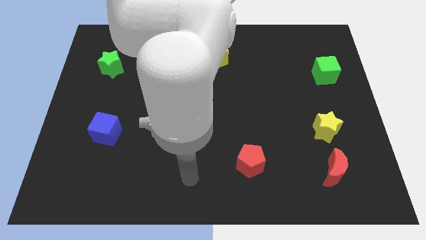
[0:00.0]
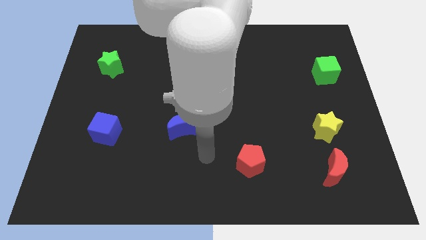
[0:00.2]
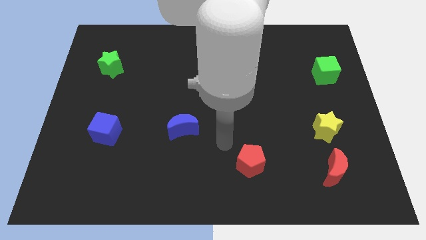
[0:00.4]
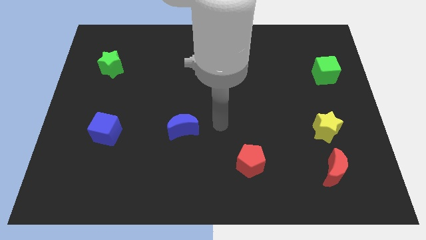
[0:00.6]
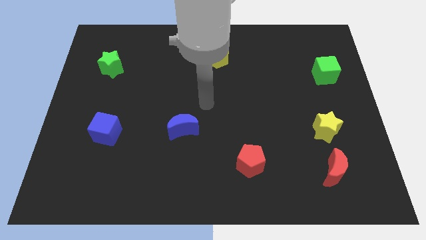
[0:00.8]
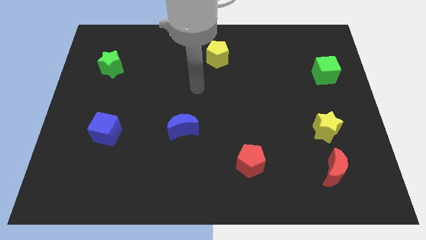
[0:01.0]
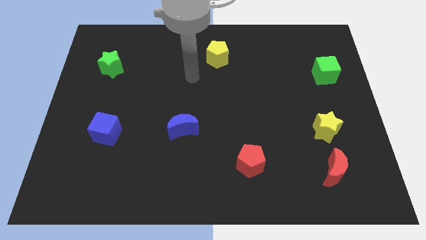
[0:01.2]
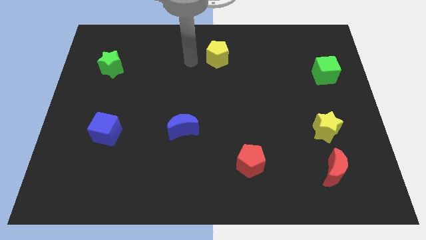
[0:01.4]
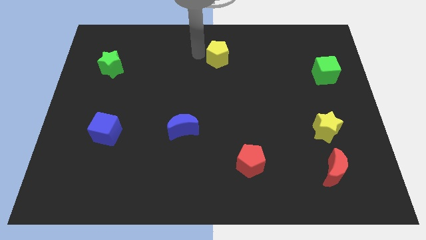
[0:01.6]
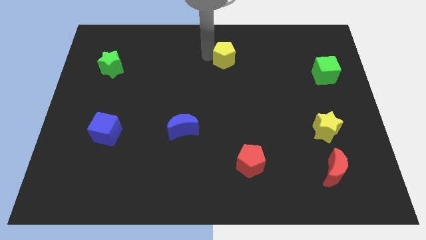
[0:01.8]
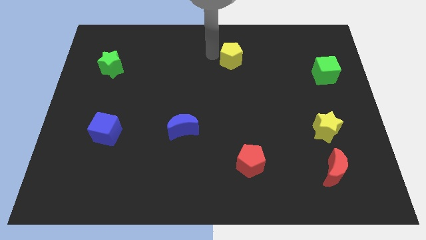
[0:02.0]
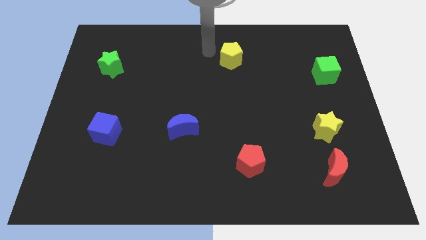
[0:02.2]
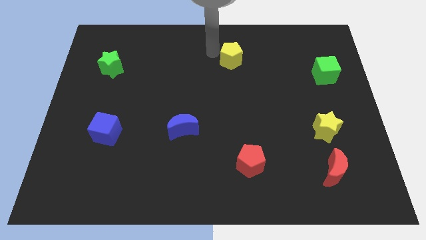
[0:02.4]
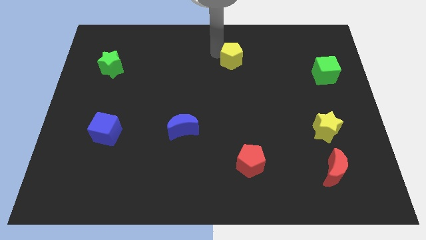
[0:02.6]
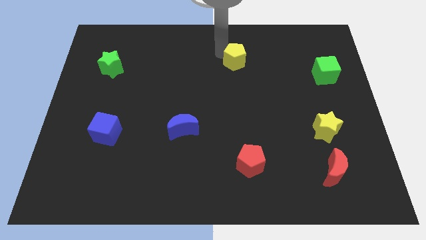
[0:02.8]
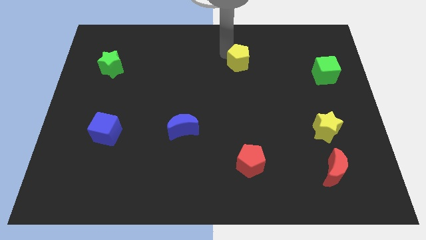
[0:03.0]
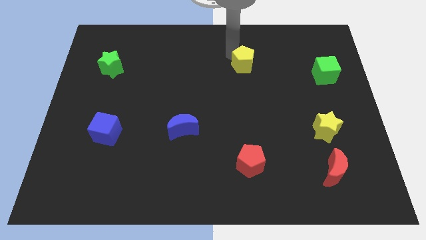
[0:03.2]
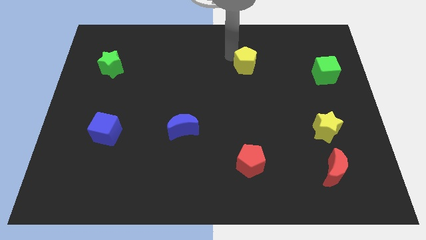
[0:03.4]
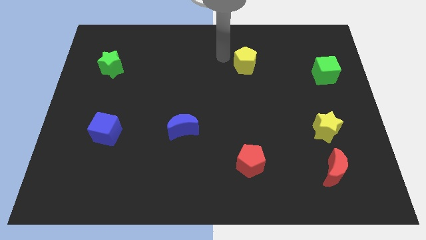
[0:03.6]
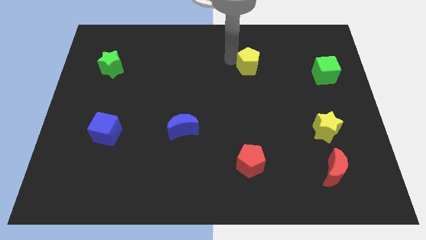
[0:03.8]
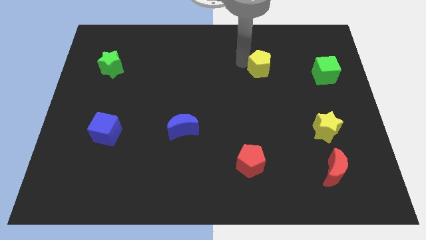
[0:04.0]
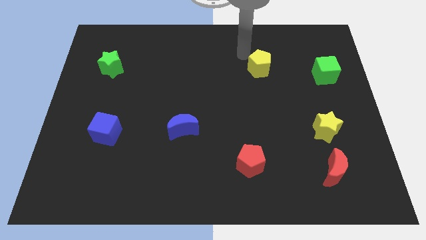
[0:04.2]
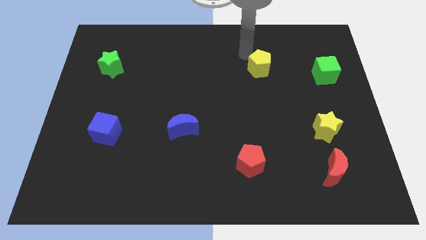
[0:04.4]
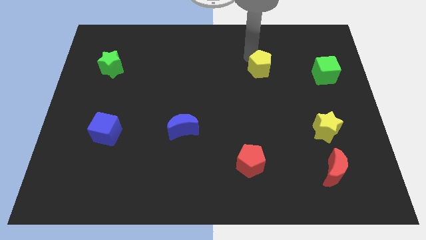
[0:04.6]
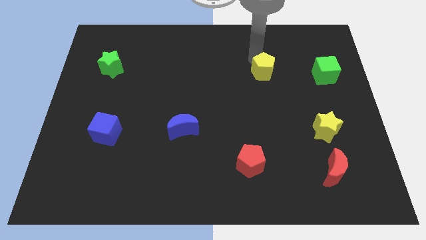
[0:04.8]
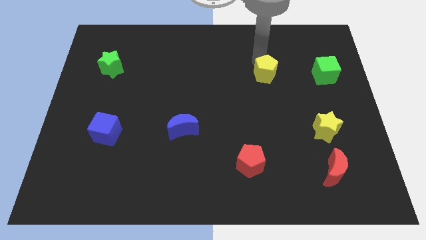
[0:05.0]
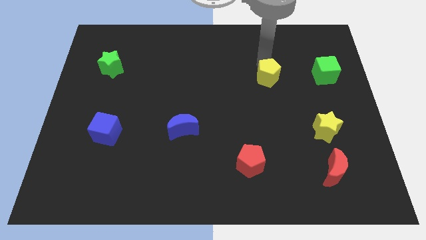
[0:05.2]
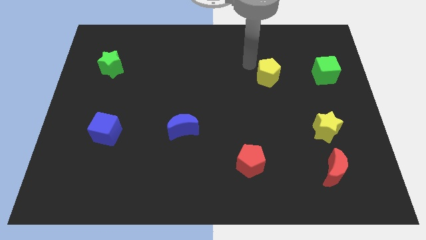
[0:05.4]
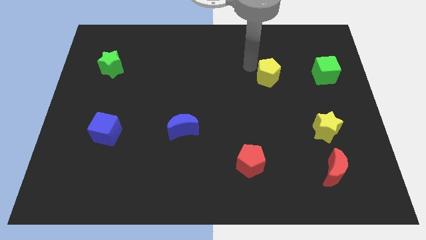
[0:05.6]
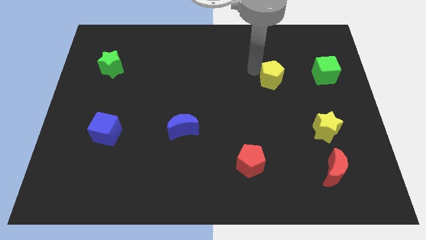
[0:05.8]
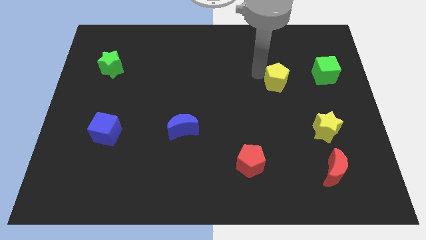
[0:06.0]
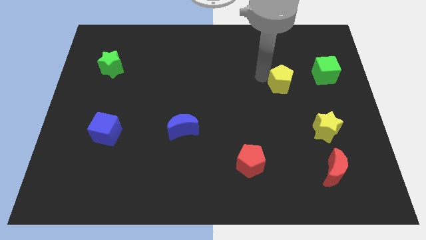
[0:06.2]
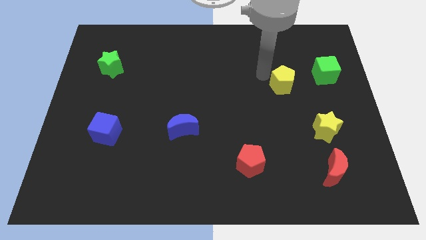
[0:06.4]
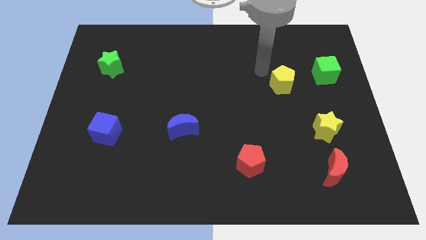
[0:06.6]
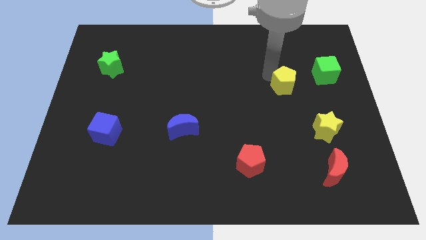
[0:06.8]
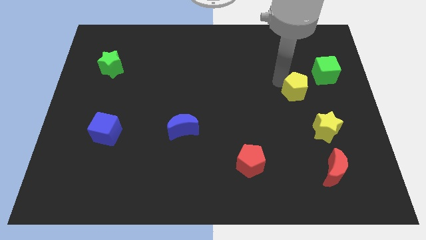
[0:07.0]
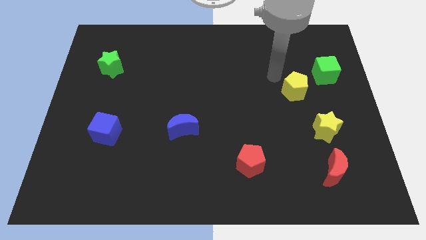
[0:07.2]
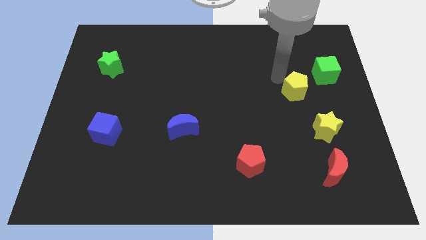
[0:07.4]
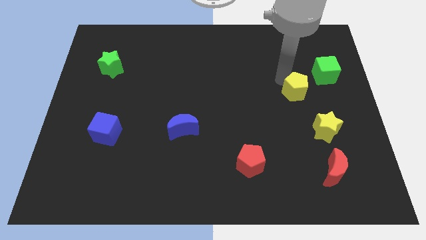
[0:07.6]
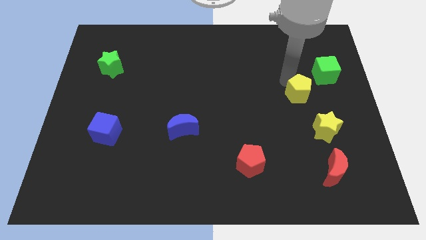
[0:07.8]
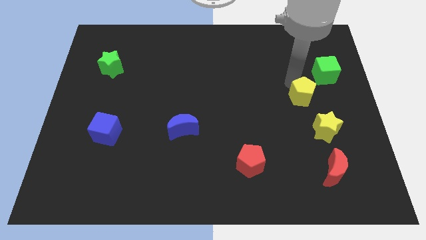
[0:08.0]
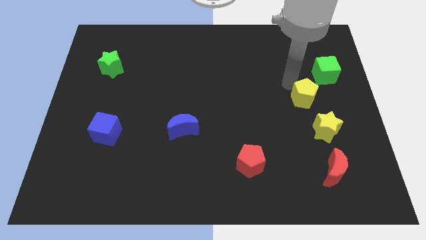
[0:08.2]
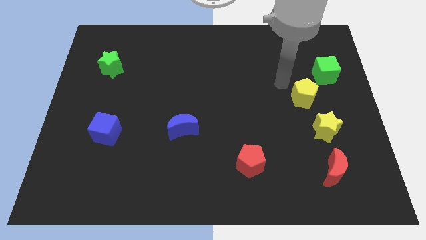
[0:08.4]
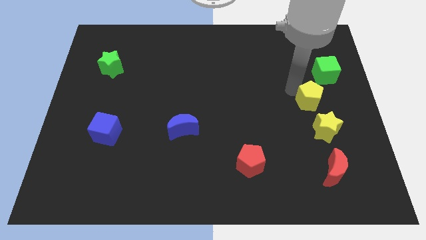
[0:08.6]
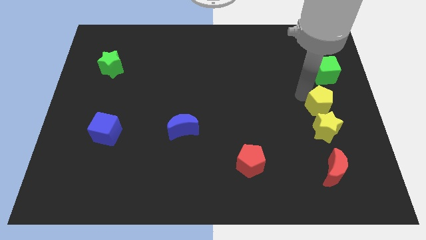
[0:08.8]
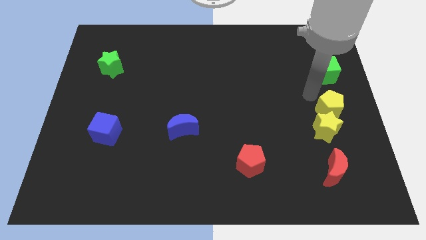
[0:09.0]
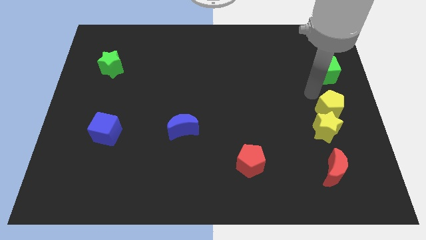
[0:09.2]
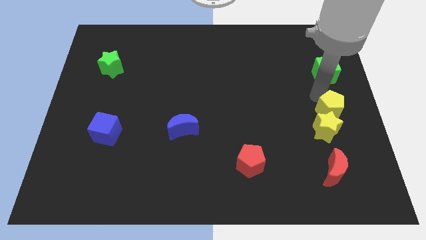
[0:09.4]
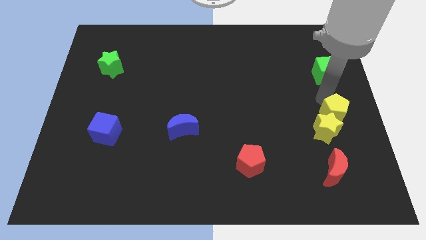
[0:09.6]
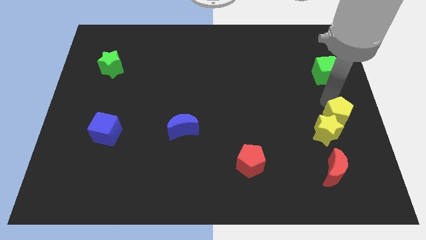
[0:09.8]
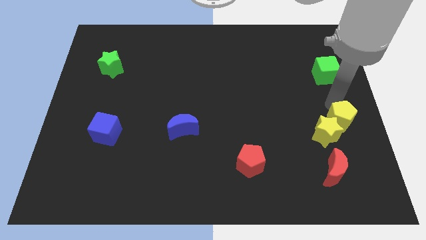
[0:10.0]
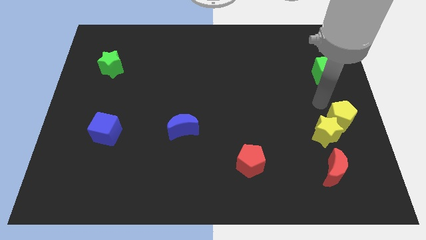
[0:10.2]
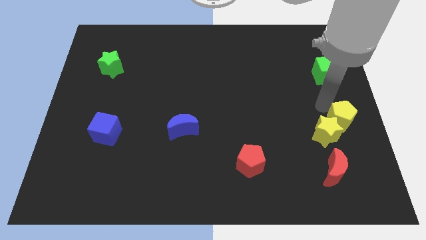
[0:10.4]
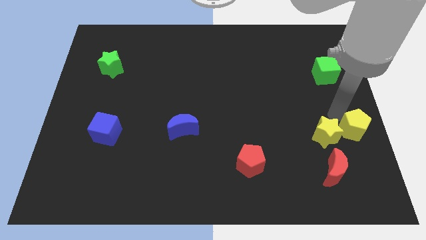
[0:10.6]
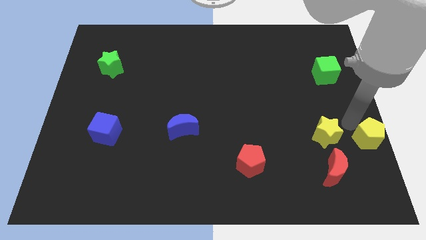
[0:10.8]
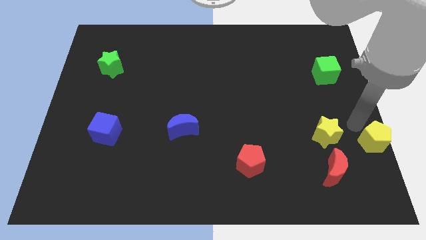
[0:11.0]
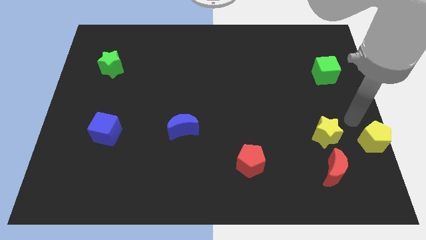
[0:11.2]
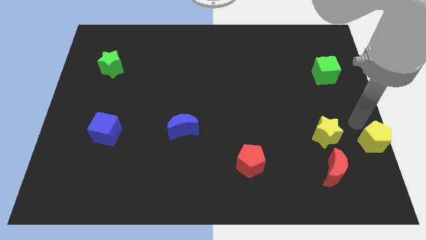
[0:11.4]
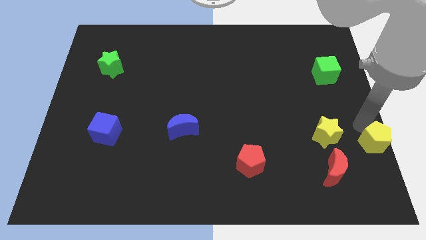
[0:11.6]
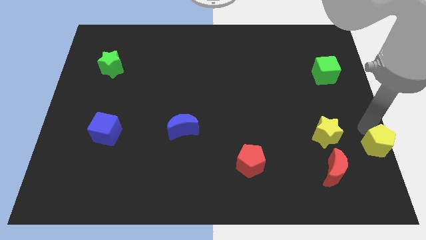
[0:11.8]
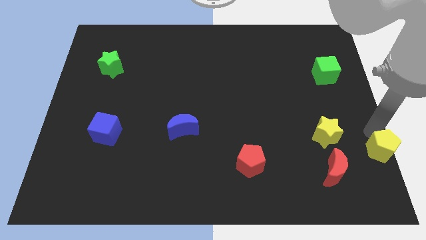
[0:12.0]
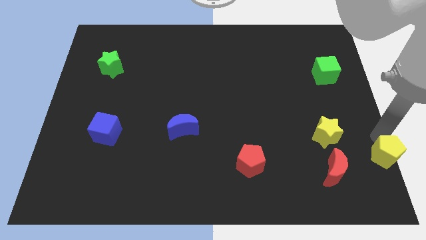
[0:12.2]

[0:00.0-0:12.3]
slide the yellow pentagon to the bottom right of the board
